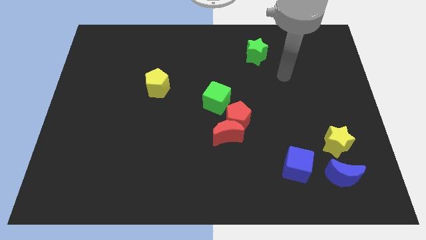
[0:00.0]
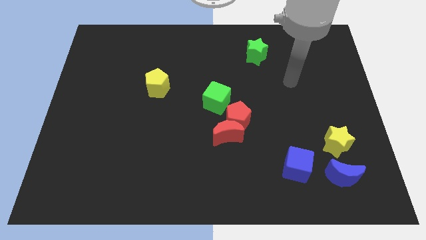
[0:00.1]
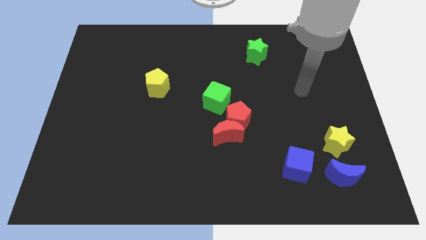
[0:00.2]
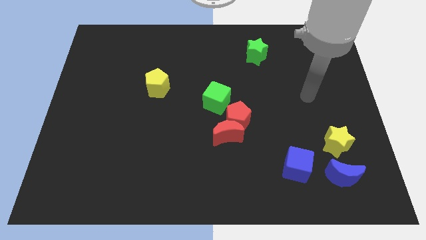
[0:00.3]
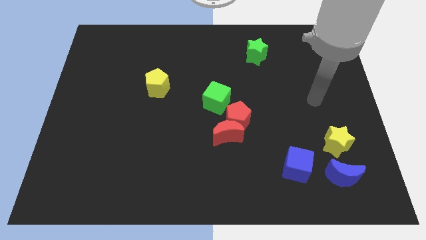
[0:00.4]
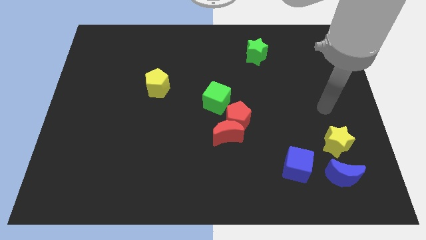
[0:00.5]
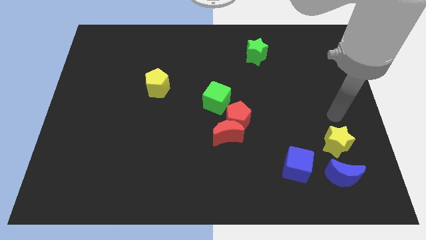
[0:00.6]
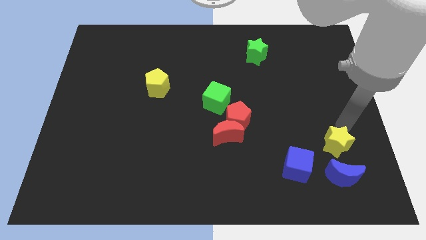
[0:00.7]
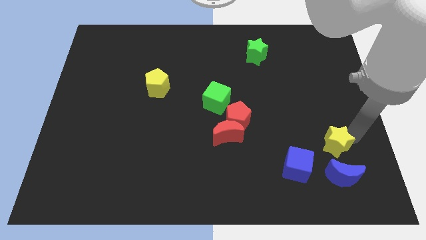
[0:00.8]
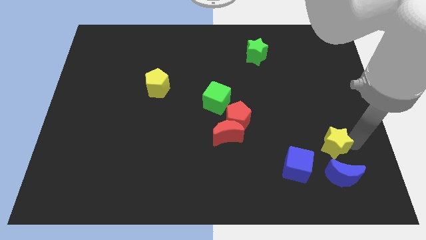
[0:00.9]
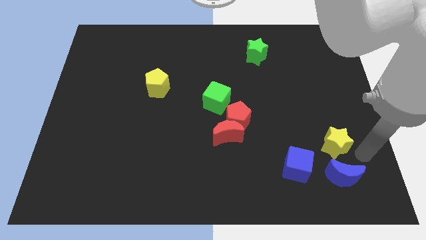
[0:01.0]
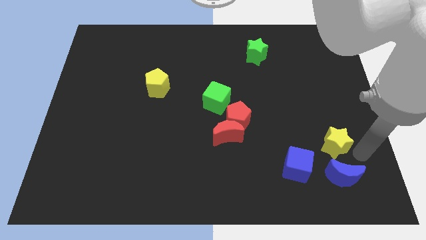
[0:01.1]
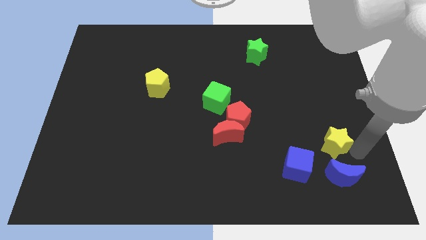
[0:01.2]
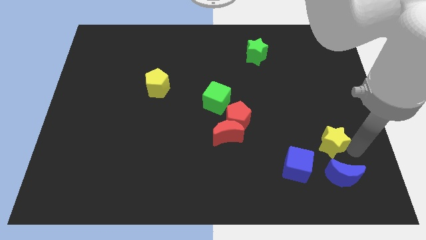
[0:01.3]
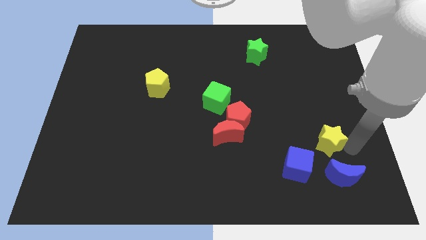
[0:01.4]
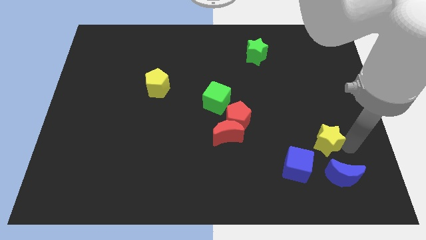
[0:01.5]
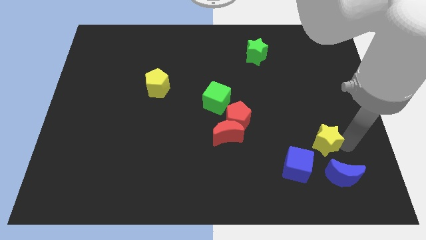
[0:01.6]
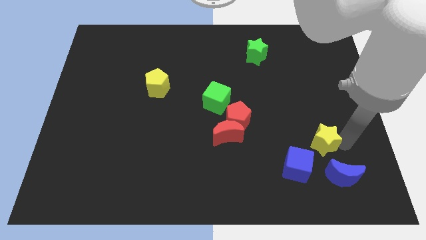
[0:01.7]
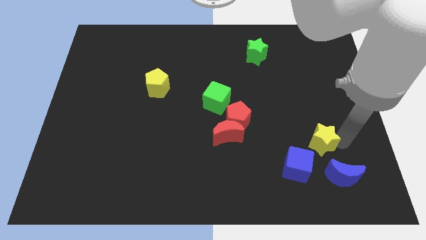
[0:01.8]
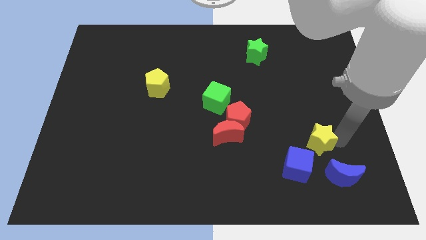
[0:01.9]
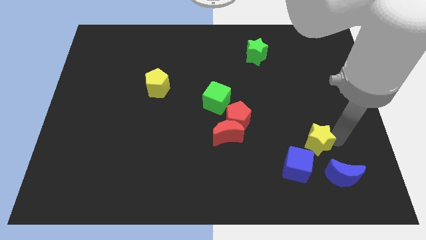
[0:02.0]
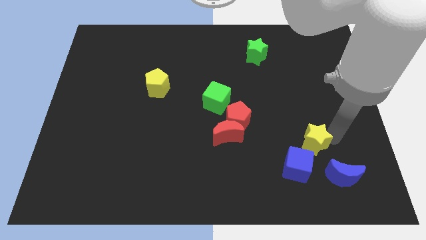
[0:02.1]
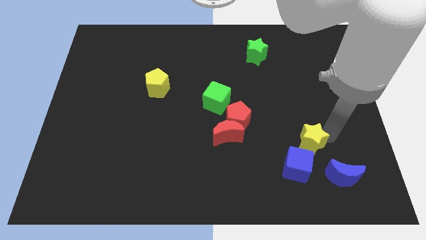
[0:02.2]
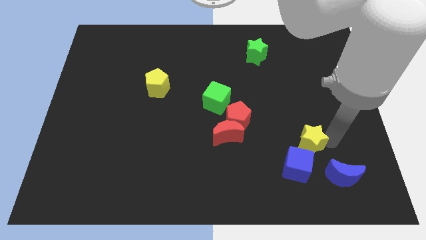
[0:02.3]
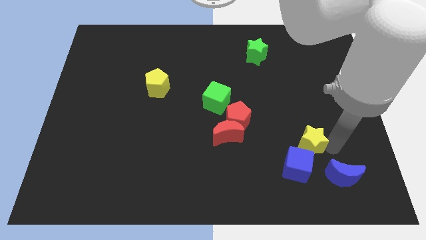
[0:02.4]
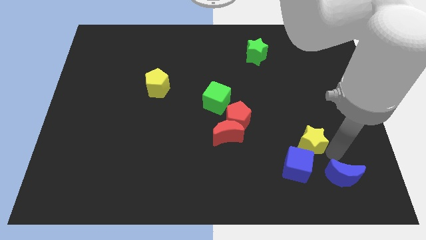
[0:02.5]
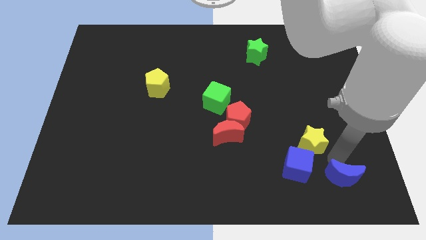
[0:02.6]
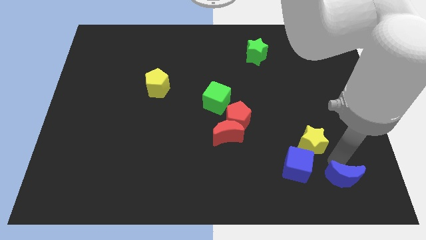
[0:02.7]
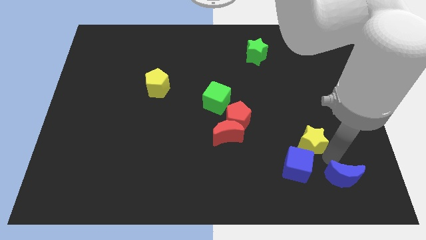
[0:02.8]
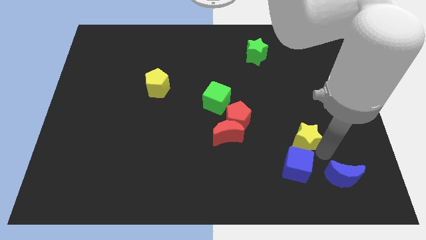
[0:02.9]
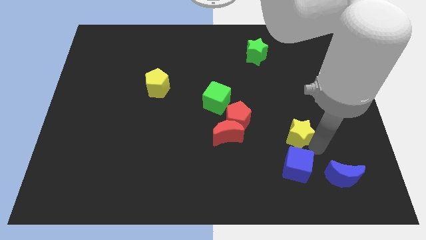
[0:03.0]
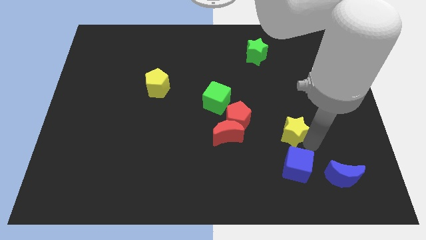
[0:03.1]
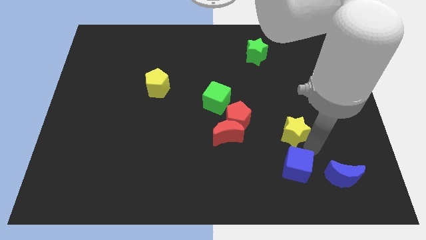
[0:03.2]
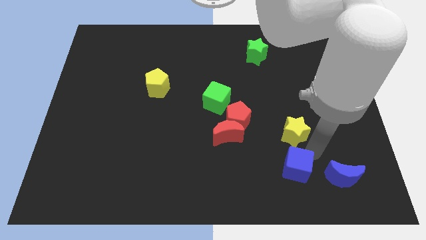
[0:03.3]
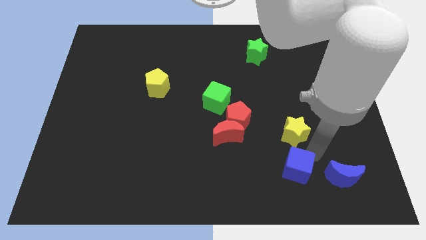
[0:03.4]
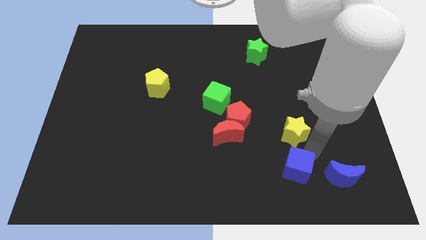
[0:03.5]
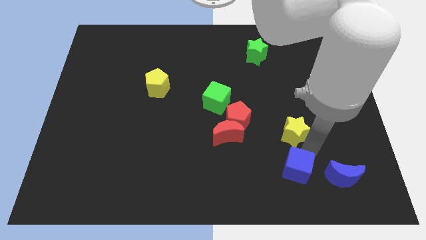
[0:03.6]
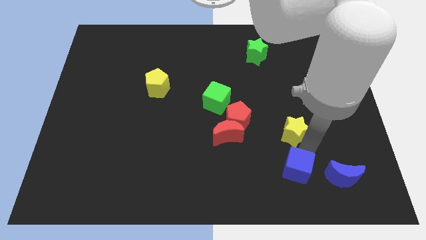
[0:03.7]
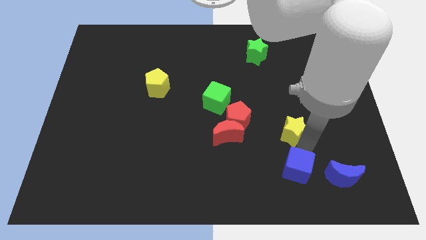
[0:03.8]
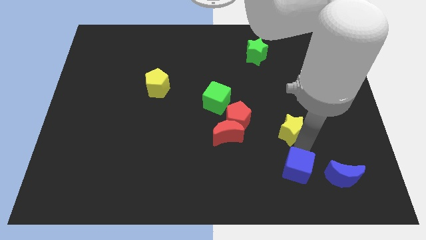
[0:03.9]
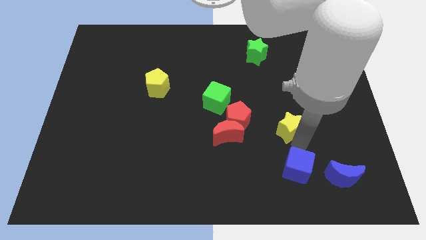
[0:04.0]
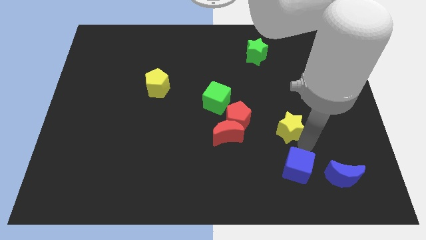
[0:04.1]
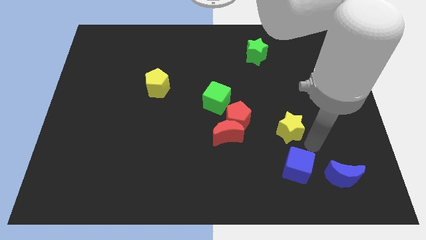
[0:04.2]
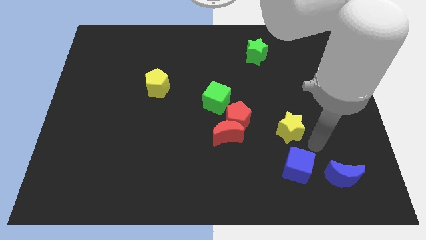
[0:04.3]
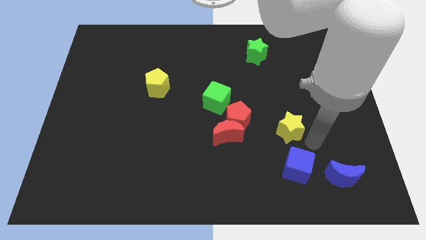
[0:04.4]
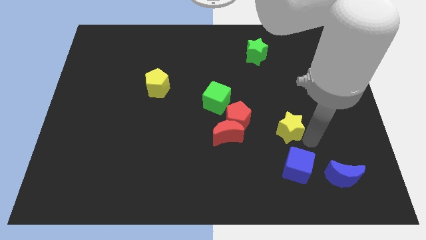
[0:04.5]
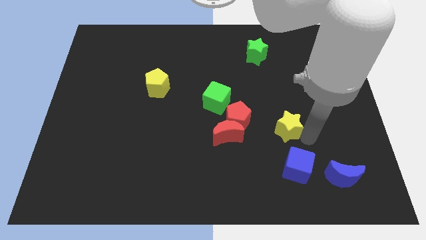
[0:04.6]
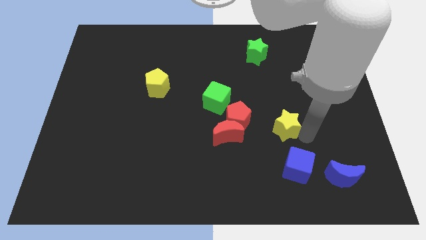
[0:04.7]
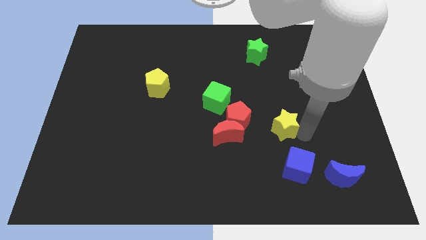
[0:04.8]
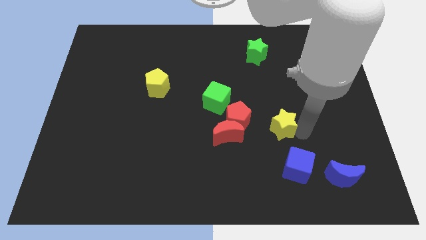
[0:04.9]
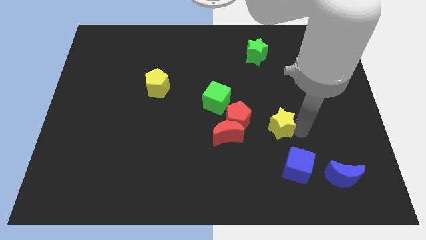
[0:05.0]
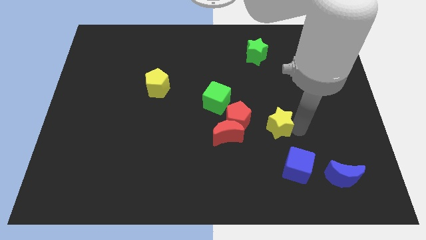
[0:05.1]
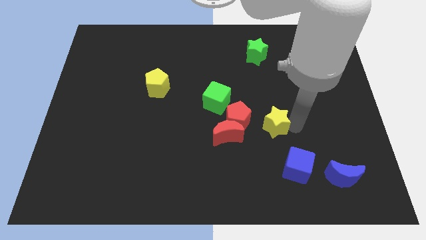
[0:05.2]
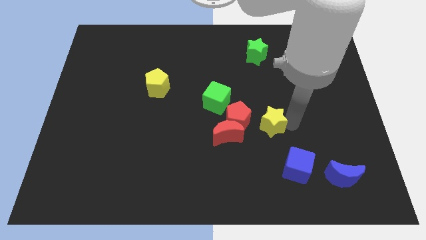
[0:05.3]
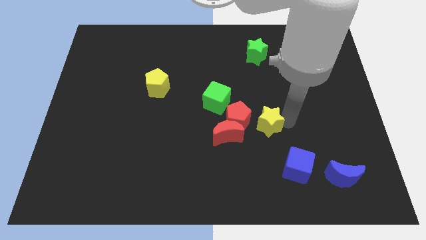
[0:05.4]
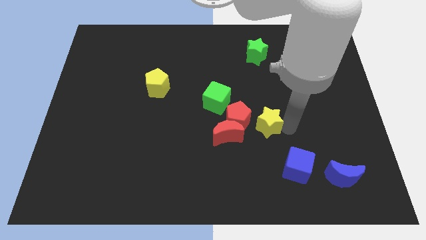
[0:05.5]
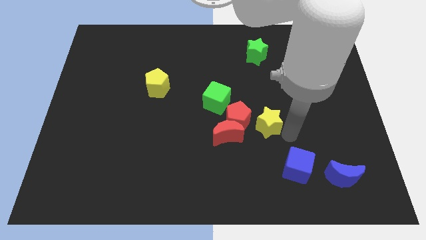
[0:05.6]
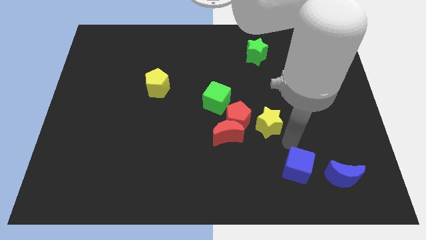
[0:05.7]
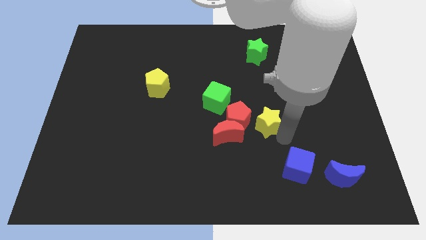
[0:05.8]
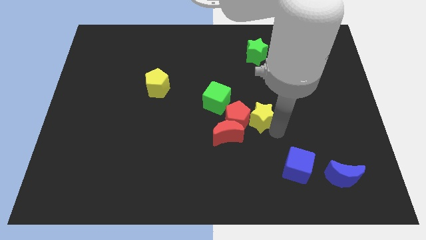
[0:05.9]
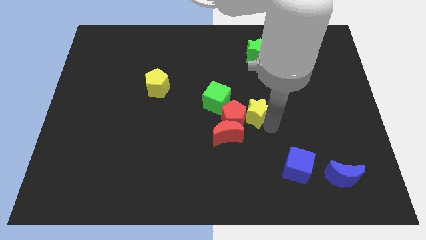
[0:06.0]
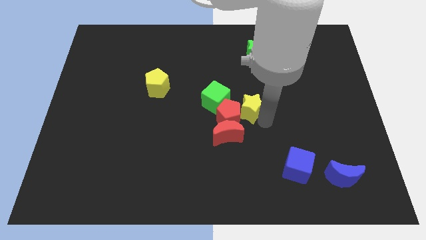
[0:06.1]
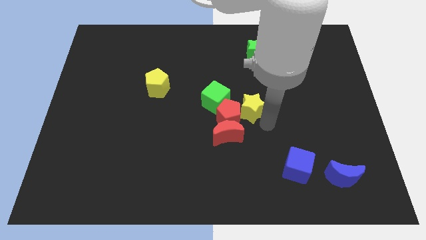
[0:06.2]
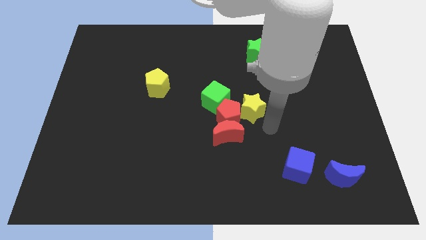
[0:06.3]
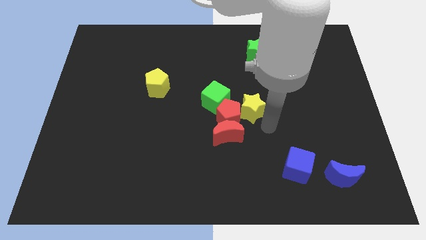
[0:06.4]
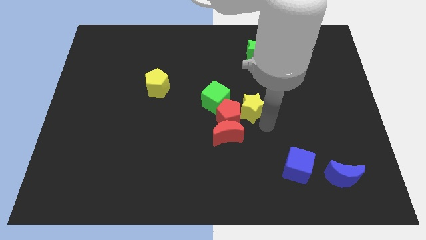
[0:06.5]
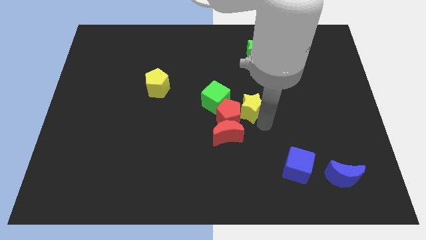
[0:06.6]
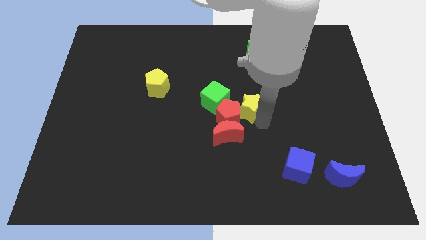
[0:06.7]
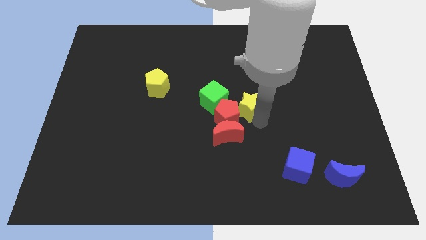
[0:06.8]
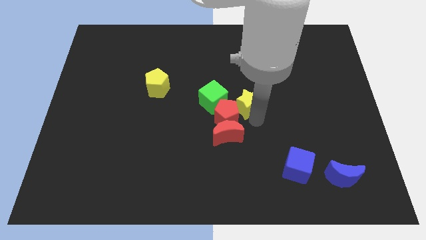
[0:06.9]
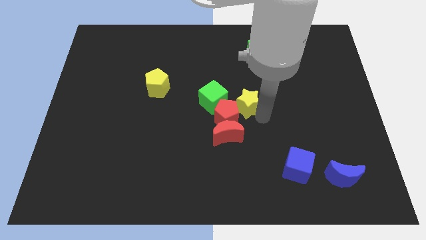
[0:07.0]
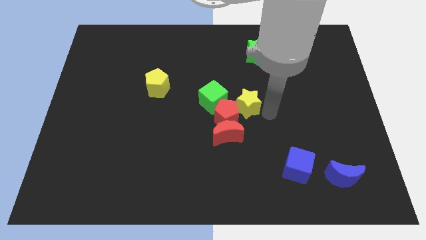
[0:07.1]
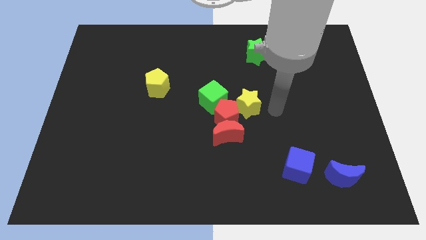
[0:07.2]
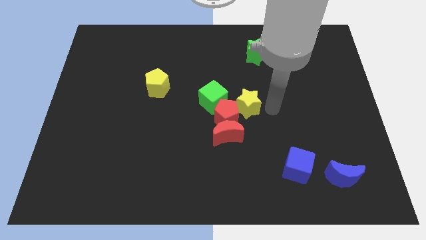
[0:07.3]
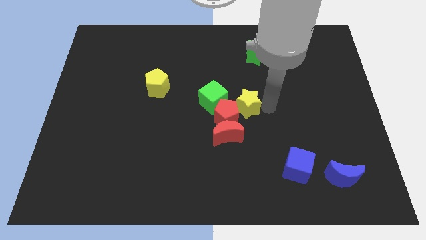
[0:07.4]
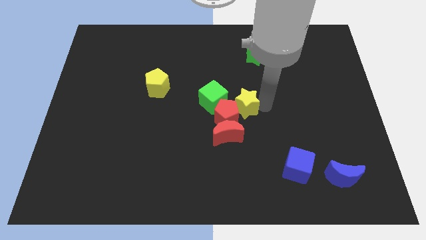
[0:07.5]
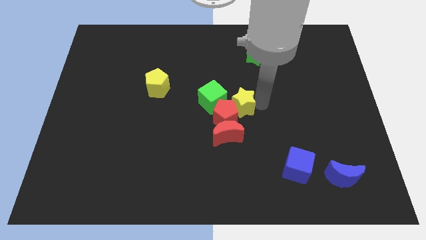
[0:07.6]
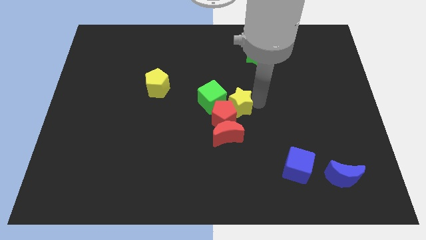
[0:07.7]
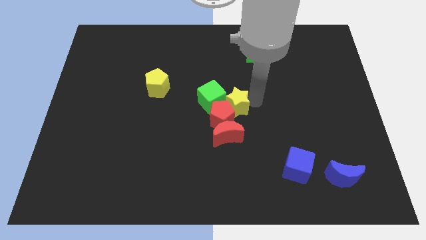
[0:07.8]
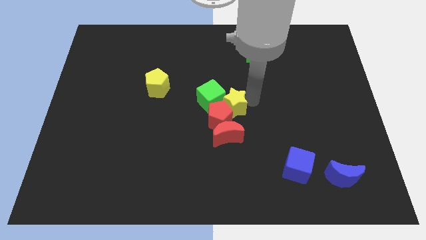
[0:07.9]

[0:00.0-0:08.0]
put the yellow star close to the green cube

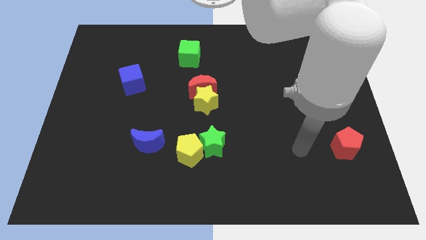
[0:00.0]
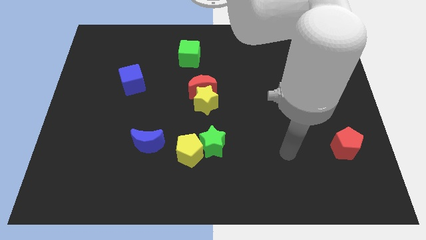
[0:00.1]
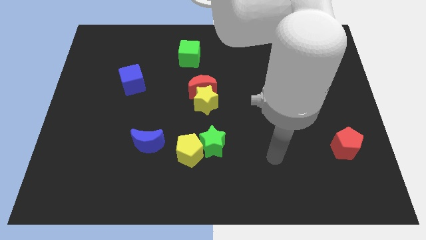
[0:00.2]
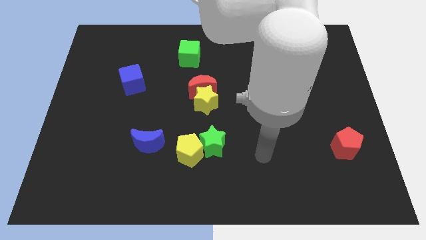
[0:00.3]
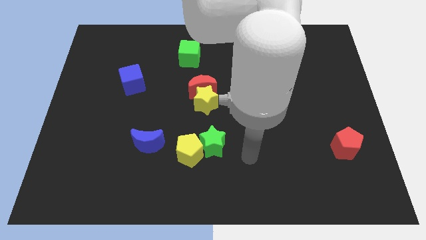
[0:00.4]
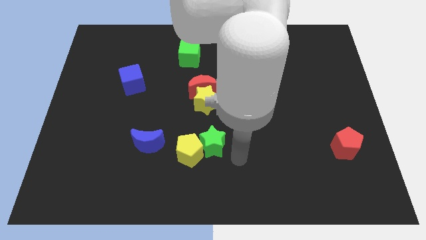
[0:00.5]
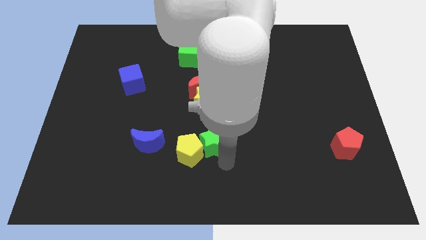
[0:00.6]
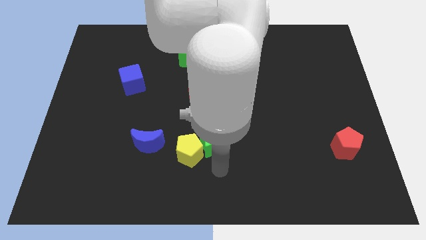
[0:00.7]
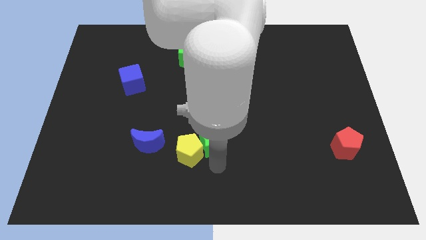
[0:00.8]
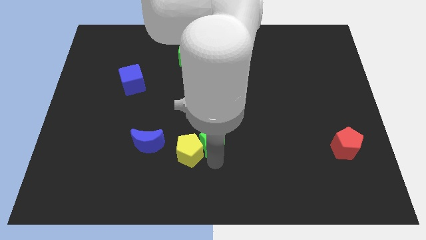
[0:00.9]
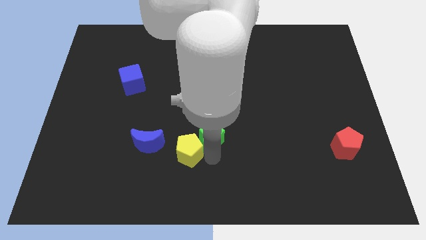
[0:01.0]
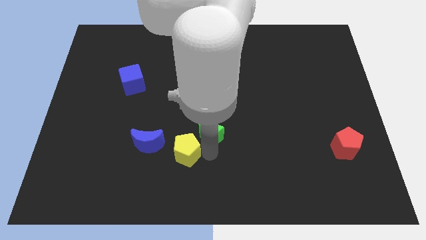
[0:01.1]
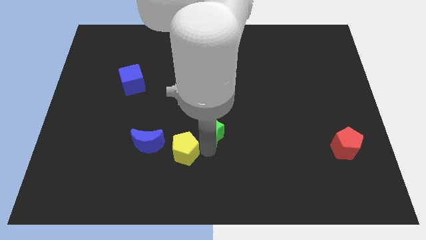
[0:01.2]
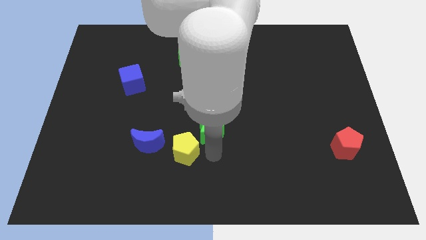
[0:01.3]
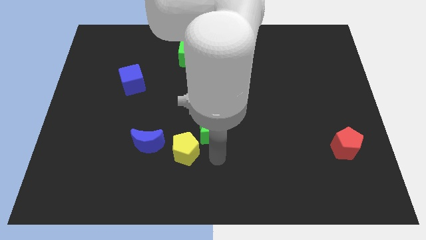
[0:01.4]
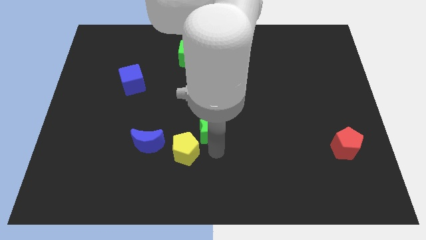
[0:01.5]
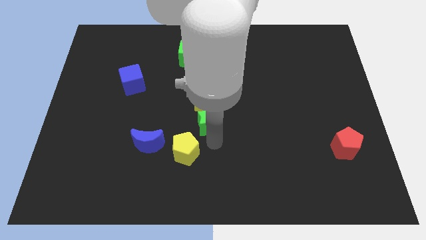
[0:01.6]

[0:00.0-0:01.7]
slide the green star towards the yellow star
